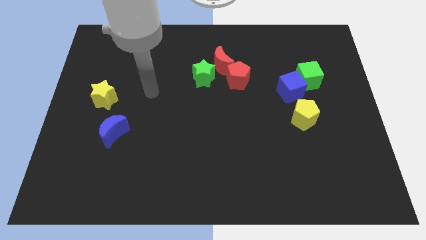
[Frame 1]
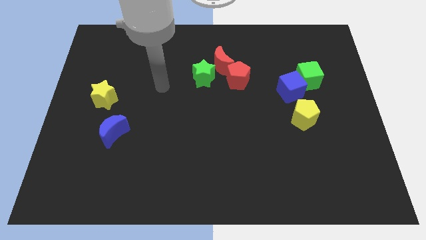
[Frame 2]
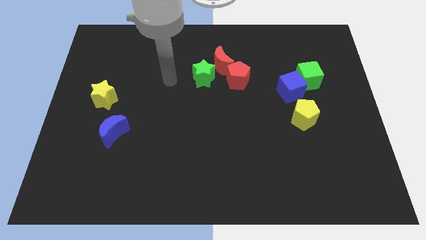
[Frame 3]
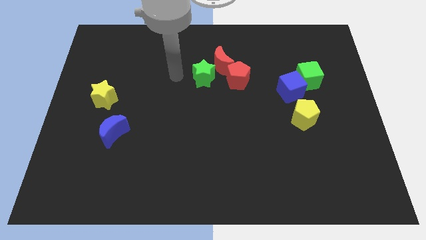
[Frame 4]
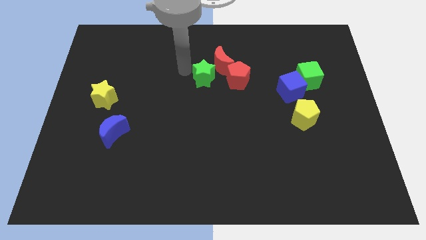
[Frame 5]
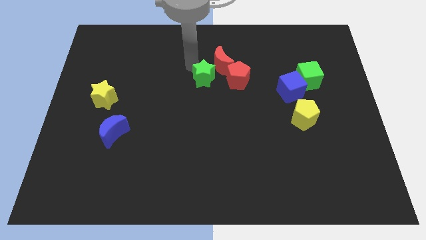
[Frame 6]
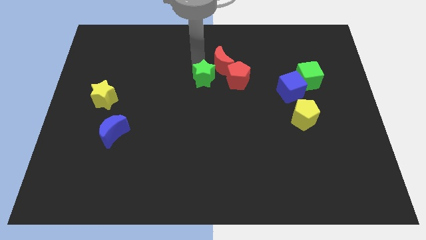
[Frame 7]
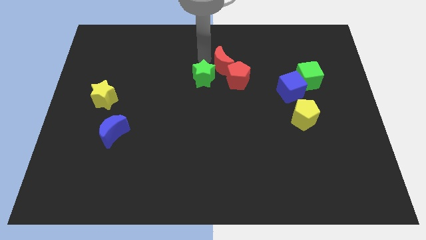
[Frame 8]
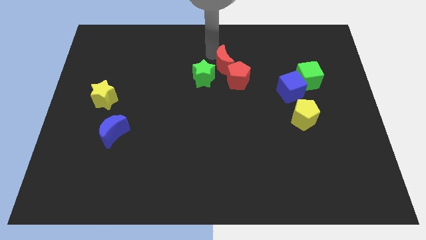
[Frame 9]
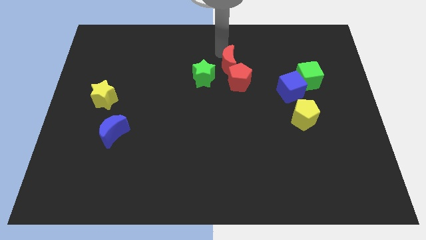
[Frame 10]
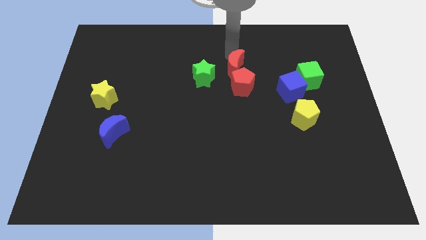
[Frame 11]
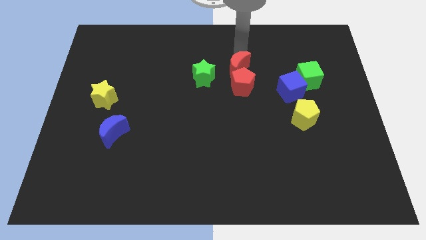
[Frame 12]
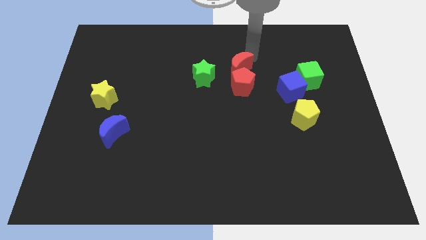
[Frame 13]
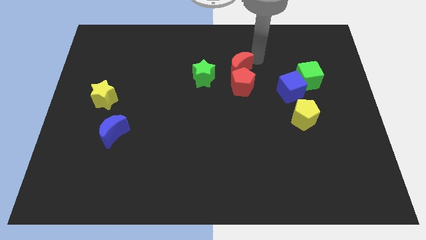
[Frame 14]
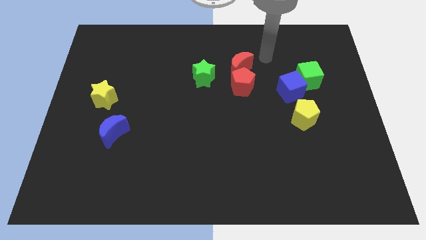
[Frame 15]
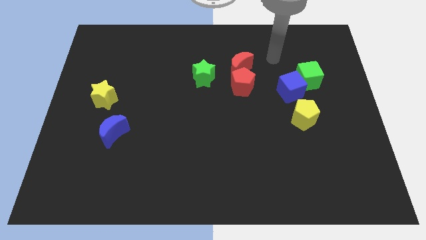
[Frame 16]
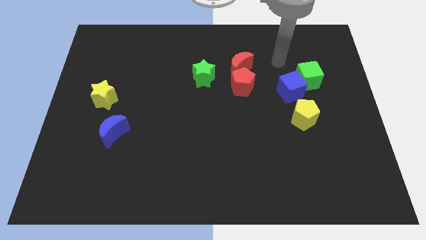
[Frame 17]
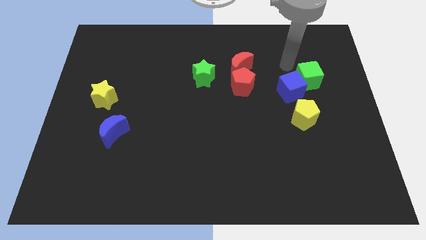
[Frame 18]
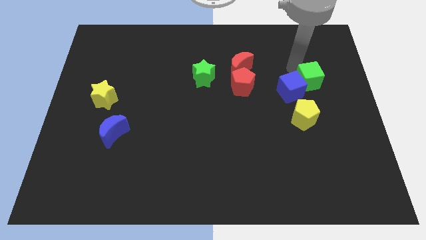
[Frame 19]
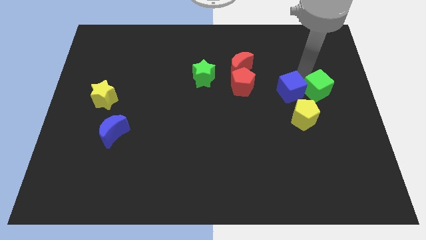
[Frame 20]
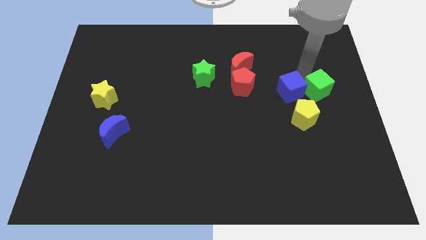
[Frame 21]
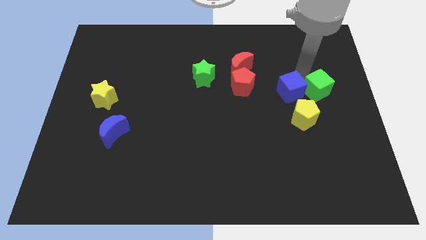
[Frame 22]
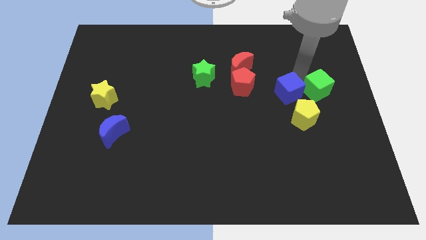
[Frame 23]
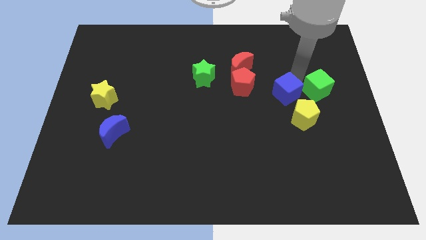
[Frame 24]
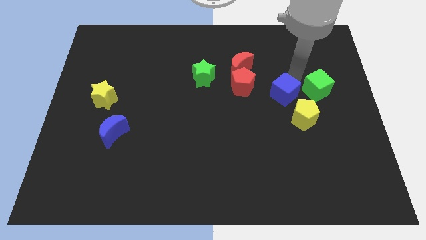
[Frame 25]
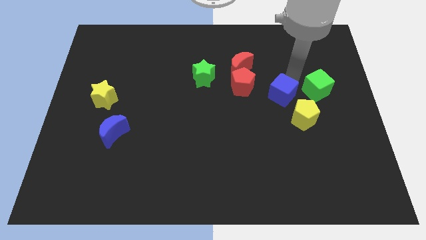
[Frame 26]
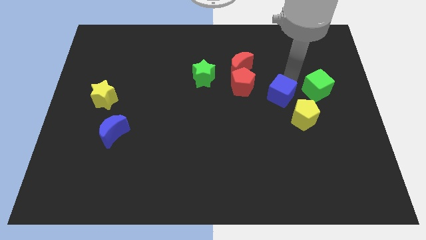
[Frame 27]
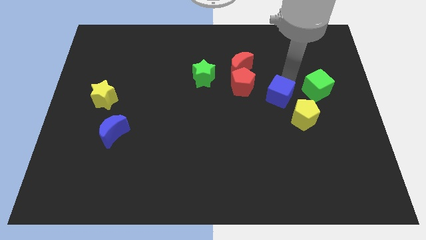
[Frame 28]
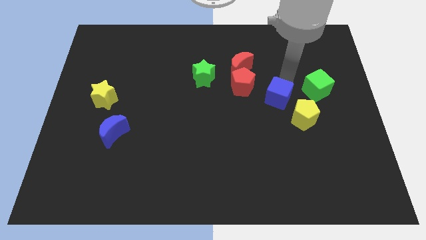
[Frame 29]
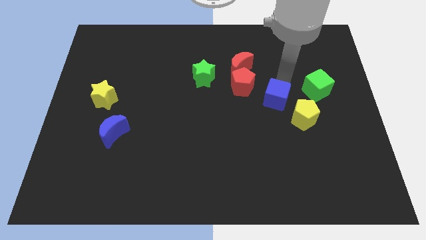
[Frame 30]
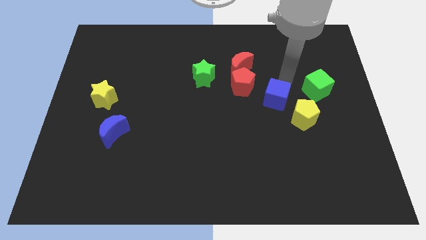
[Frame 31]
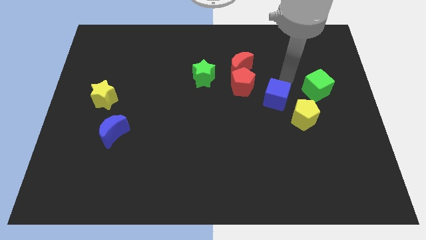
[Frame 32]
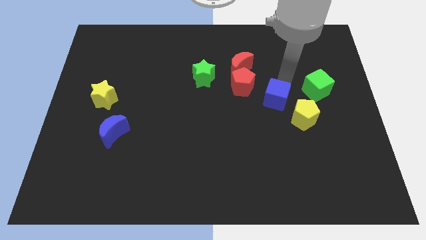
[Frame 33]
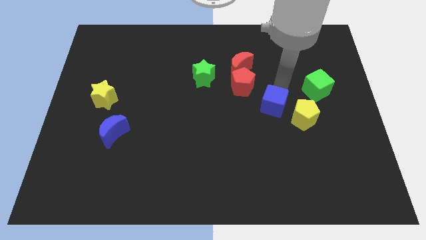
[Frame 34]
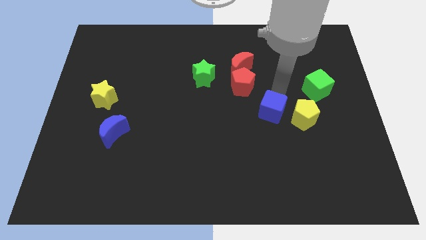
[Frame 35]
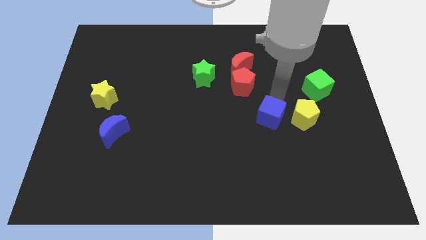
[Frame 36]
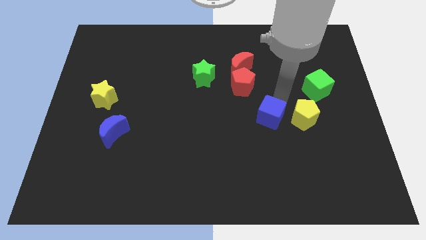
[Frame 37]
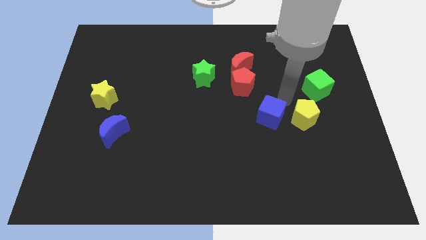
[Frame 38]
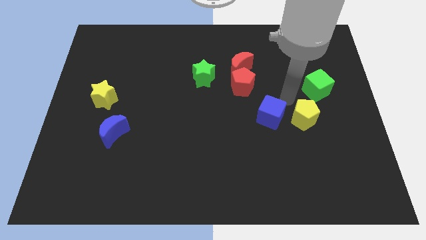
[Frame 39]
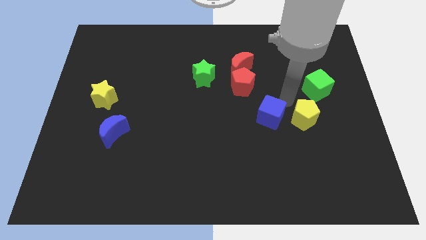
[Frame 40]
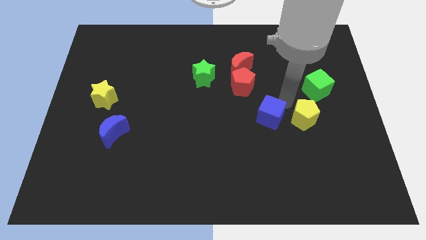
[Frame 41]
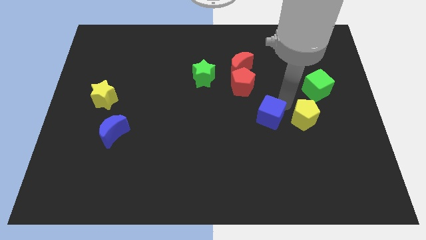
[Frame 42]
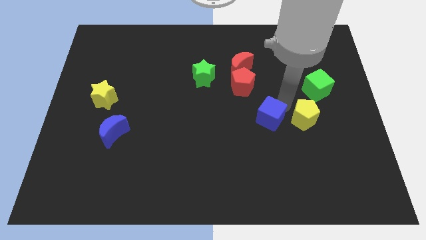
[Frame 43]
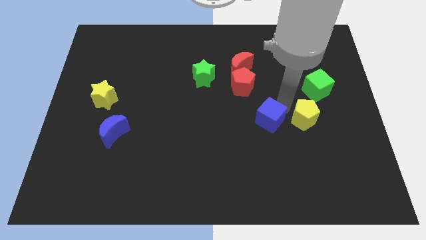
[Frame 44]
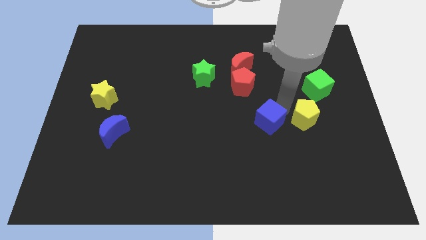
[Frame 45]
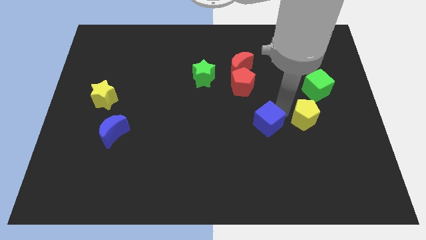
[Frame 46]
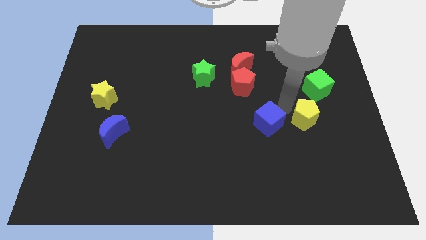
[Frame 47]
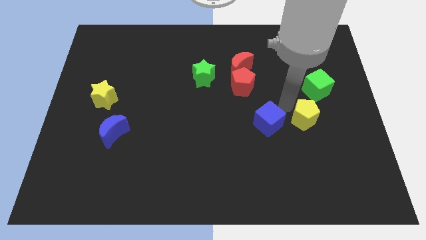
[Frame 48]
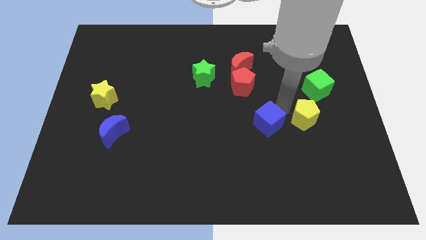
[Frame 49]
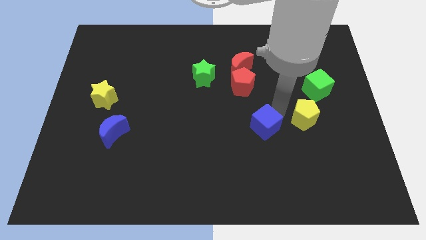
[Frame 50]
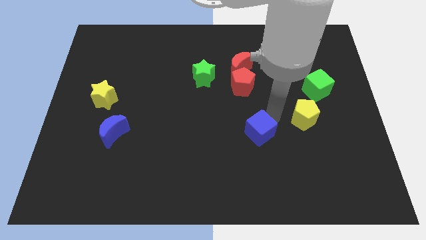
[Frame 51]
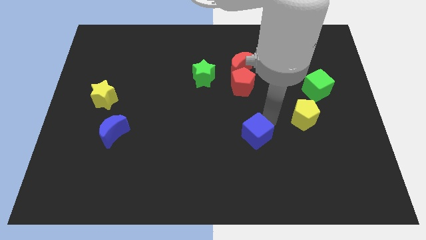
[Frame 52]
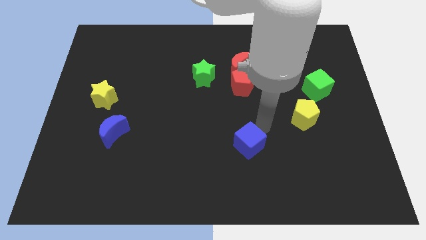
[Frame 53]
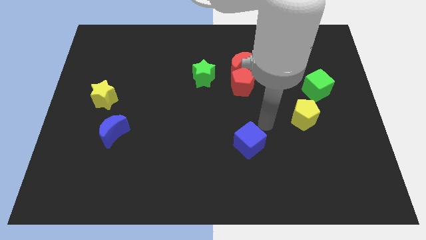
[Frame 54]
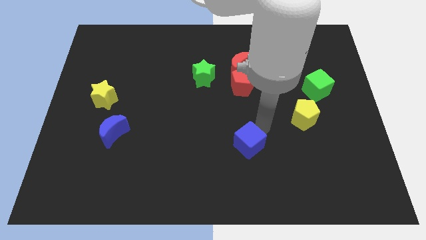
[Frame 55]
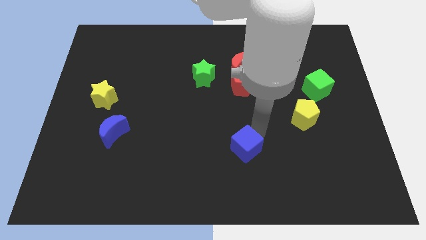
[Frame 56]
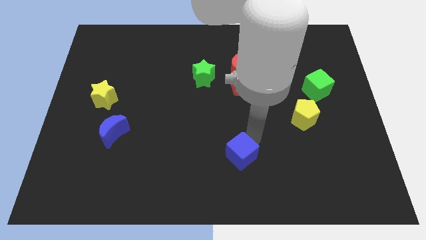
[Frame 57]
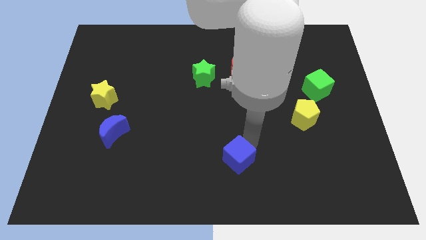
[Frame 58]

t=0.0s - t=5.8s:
move the blue cube to the bottom side

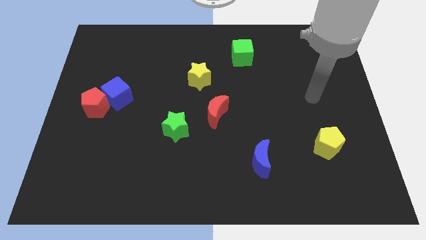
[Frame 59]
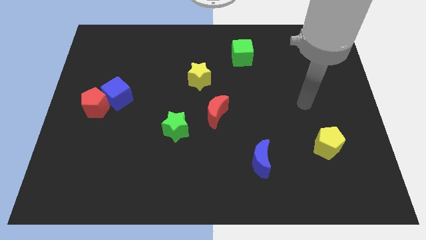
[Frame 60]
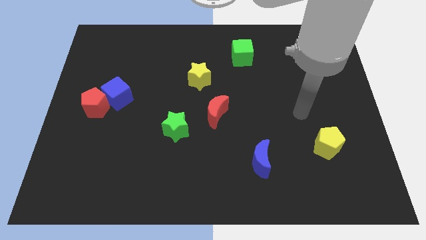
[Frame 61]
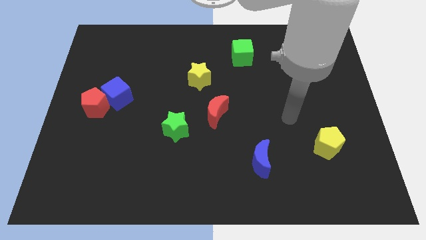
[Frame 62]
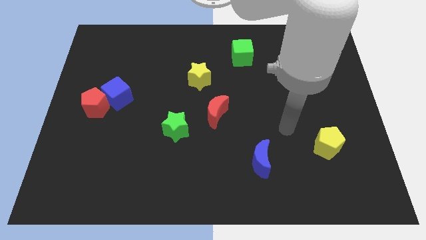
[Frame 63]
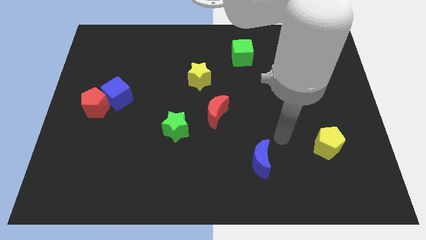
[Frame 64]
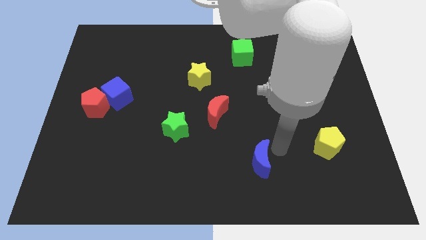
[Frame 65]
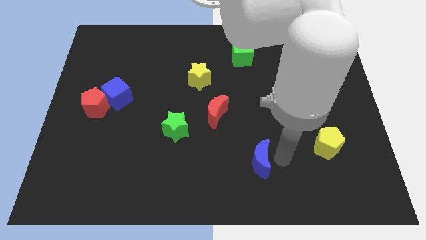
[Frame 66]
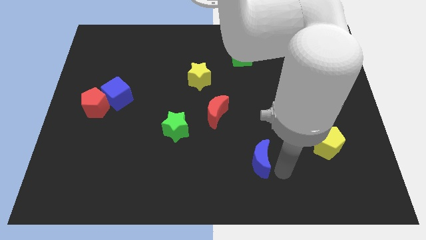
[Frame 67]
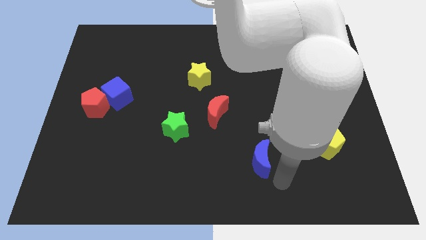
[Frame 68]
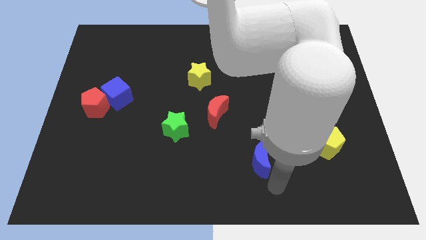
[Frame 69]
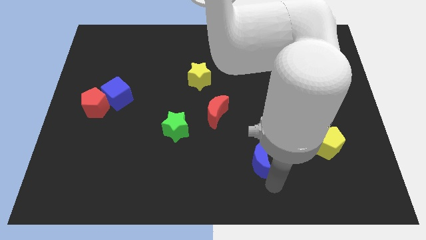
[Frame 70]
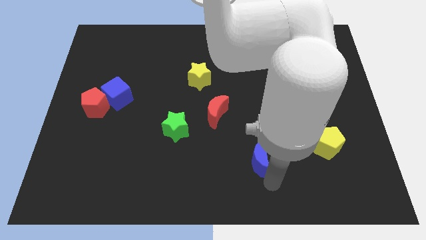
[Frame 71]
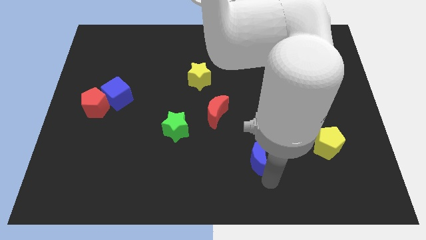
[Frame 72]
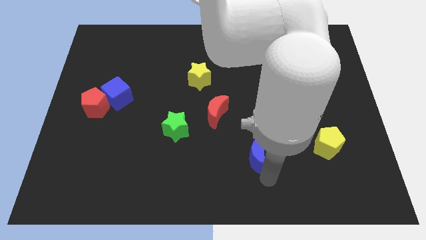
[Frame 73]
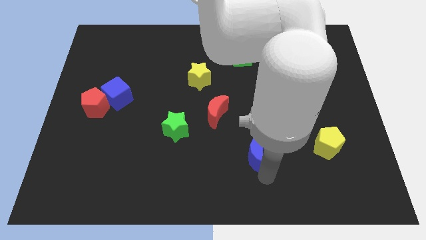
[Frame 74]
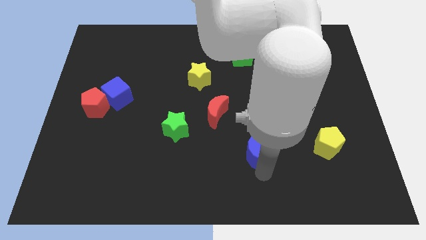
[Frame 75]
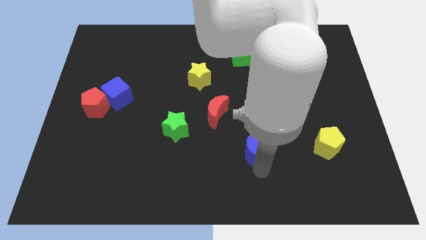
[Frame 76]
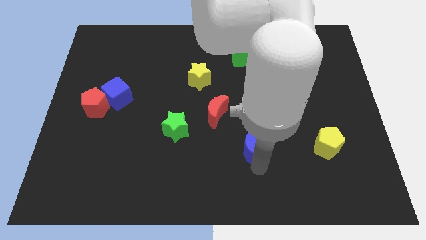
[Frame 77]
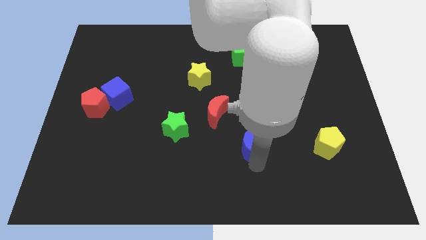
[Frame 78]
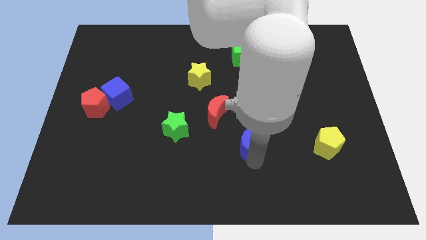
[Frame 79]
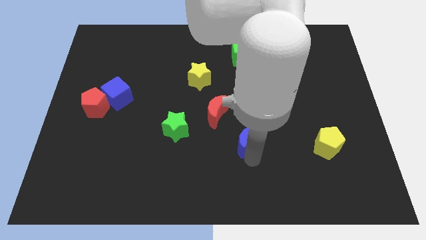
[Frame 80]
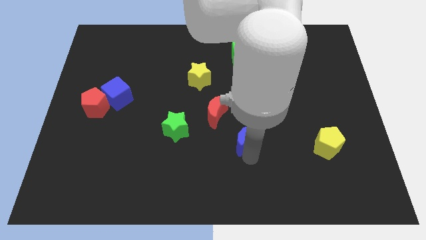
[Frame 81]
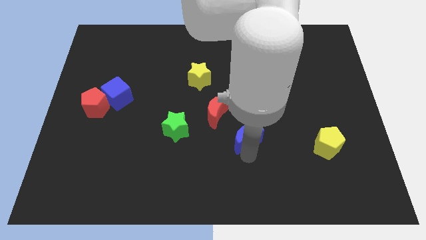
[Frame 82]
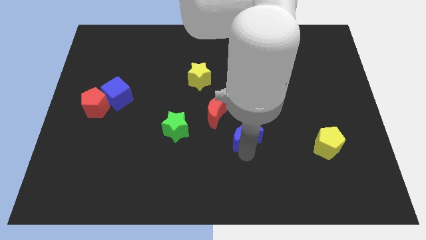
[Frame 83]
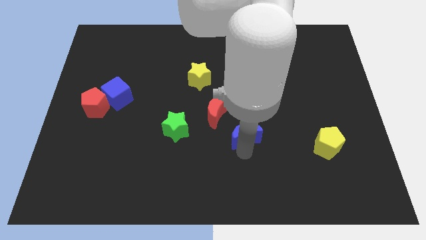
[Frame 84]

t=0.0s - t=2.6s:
put the blue moon to the middle
